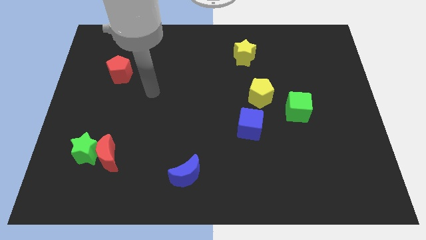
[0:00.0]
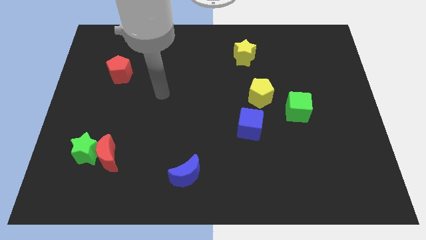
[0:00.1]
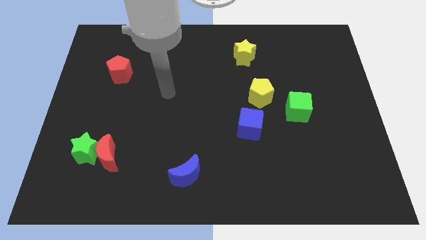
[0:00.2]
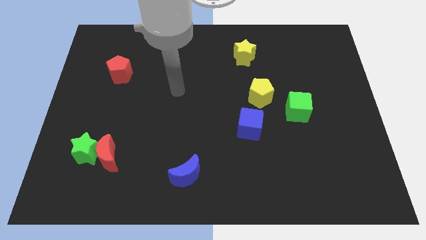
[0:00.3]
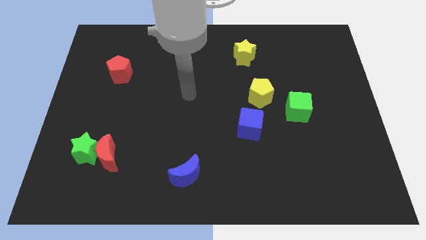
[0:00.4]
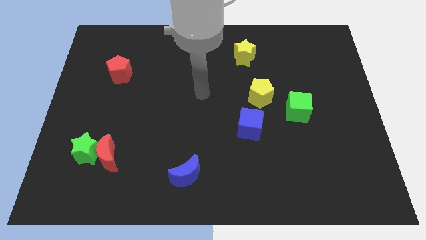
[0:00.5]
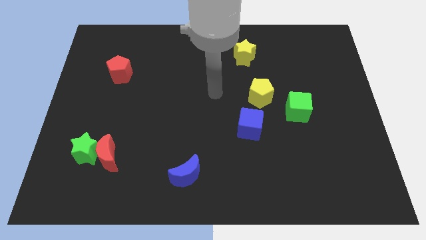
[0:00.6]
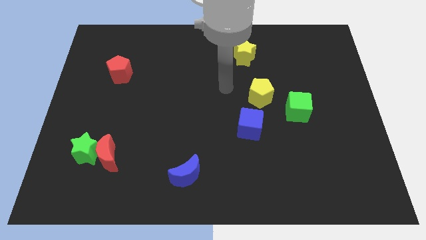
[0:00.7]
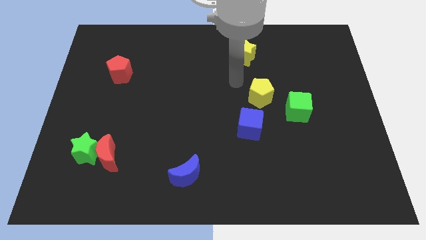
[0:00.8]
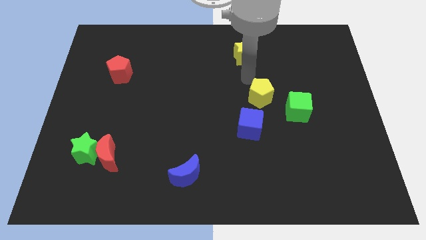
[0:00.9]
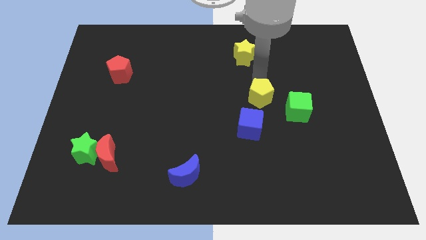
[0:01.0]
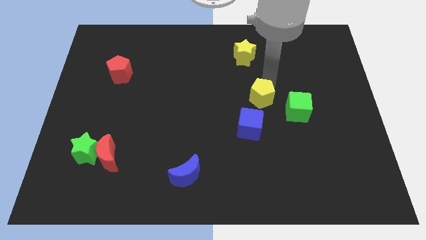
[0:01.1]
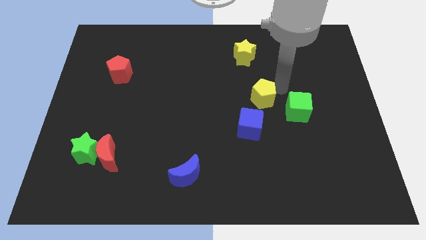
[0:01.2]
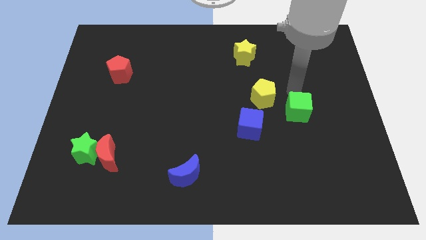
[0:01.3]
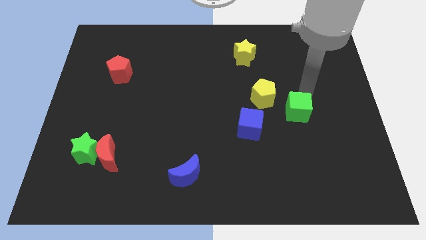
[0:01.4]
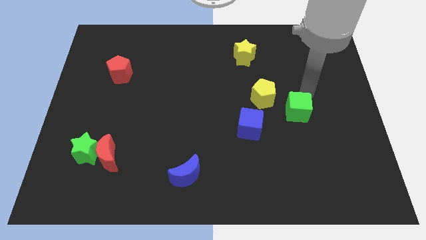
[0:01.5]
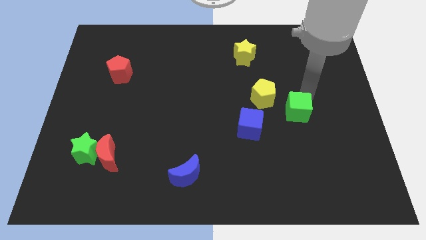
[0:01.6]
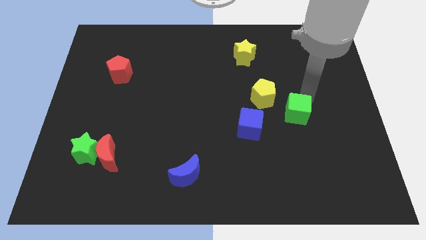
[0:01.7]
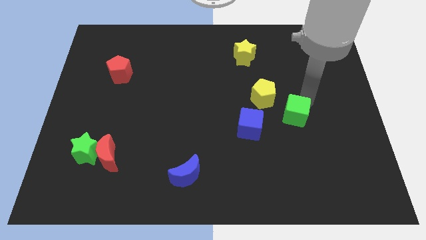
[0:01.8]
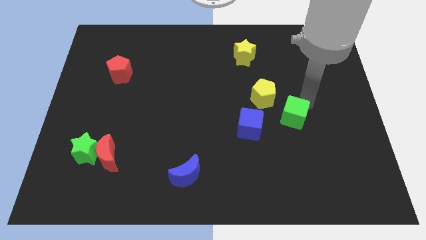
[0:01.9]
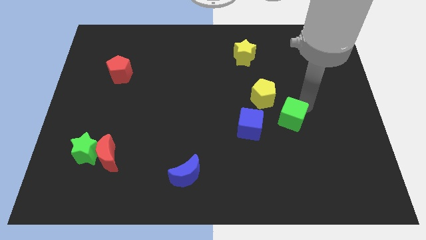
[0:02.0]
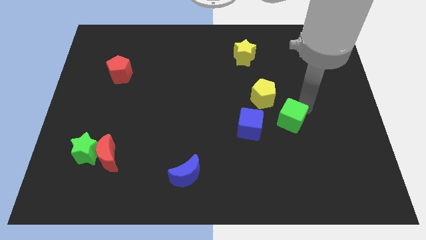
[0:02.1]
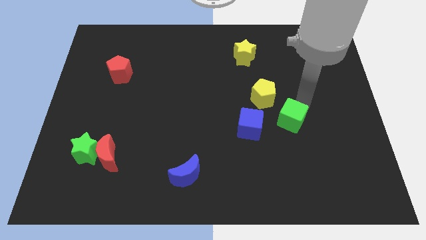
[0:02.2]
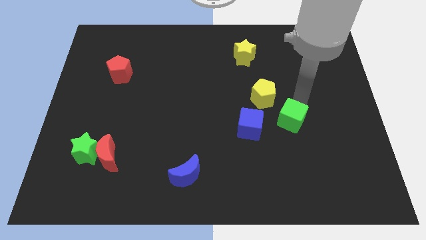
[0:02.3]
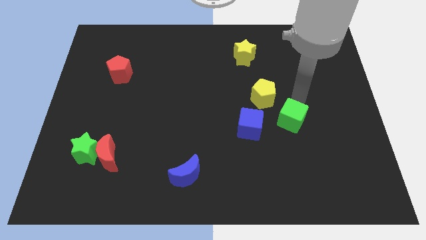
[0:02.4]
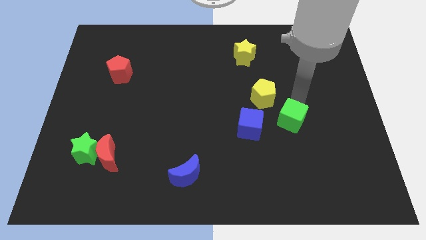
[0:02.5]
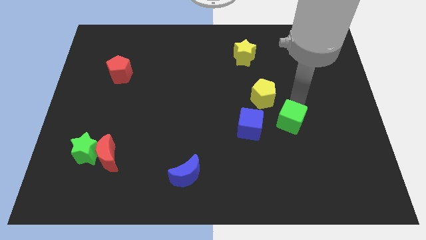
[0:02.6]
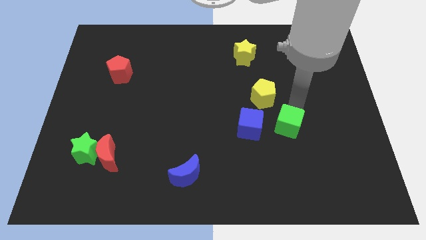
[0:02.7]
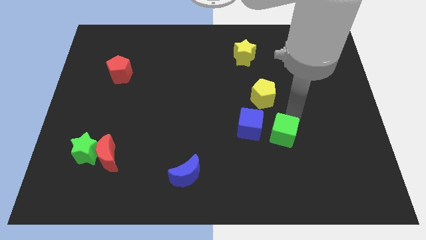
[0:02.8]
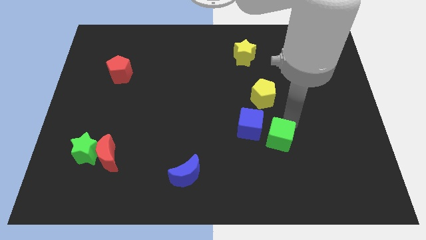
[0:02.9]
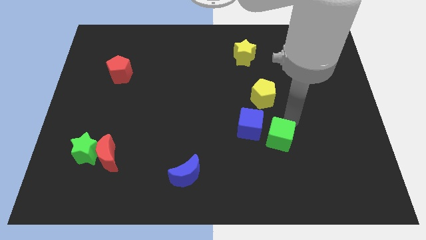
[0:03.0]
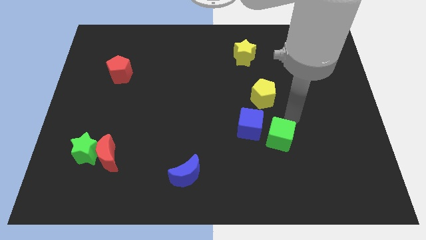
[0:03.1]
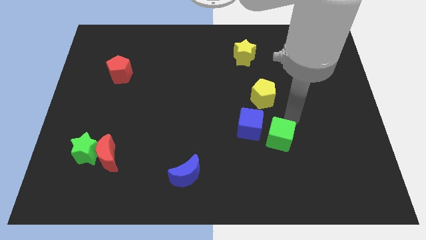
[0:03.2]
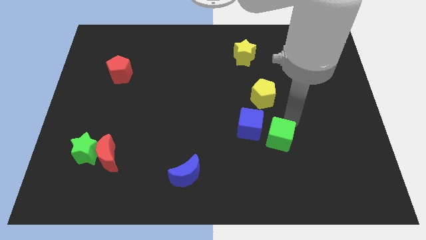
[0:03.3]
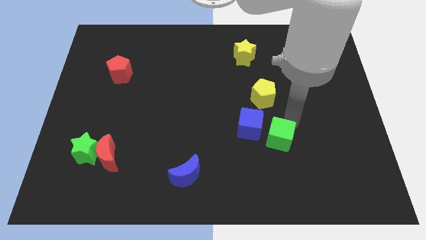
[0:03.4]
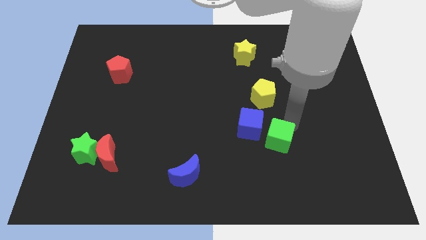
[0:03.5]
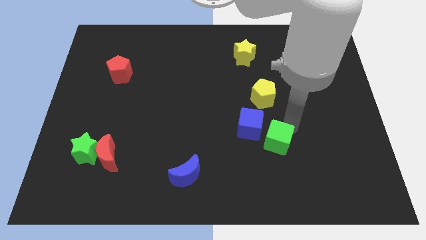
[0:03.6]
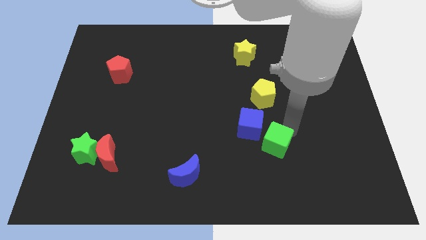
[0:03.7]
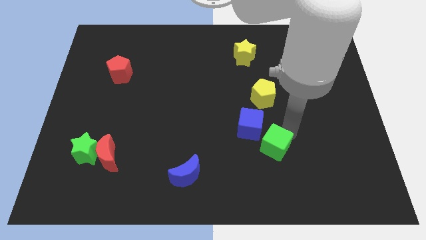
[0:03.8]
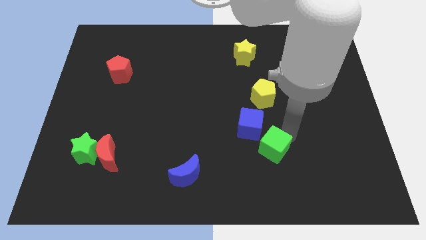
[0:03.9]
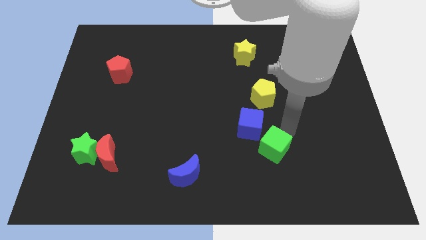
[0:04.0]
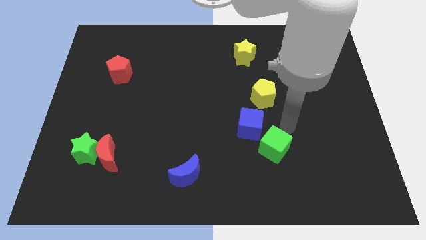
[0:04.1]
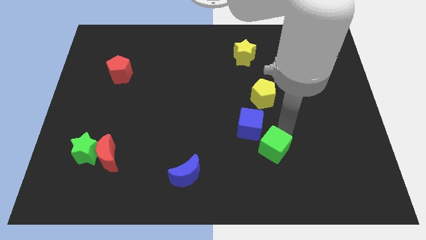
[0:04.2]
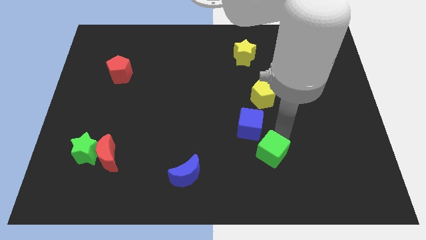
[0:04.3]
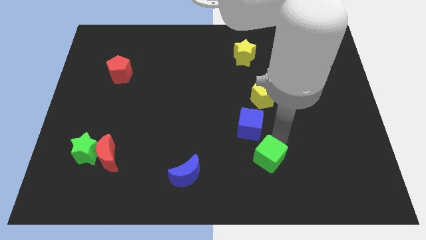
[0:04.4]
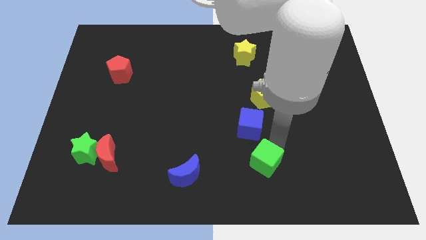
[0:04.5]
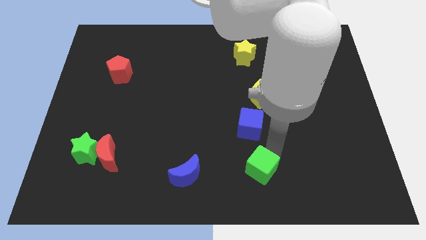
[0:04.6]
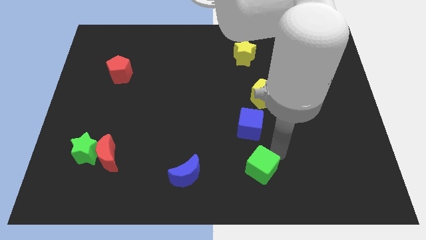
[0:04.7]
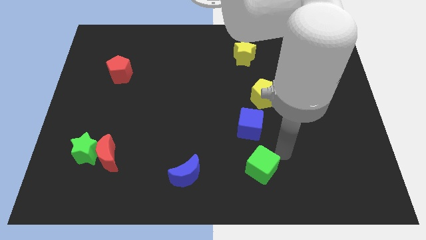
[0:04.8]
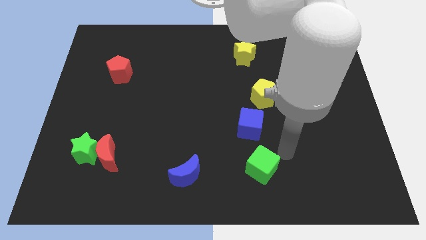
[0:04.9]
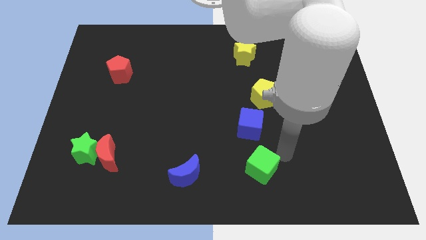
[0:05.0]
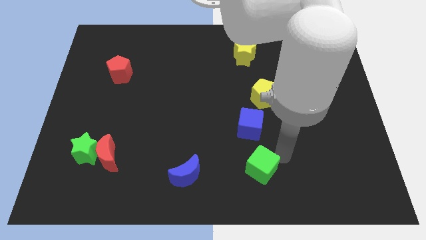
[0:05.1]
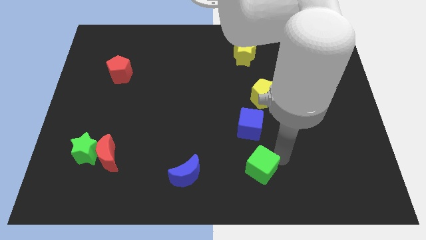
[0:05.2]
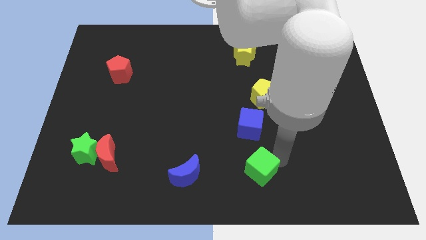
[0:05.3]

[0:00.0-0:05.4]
push the green cube to the bottom side

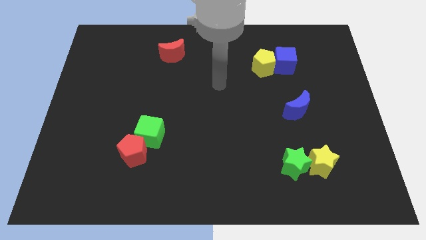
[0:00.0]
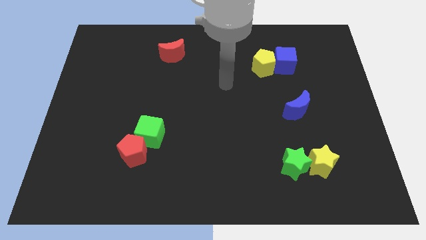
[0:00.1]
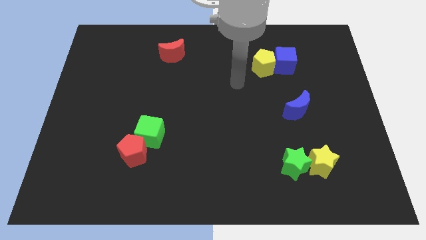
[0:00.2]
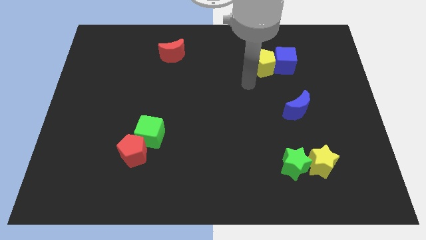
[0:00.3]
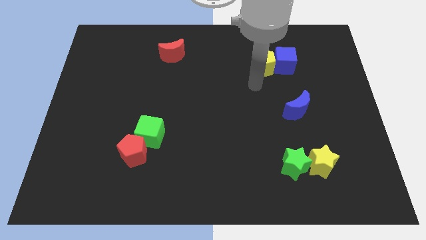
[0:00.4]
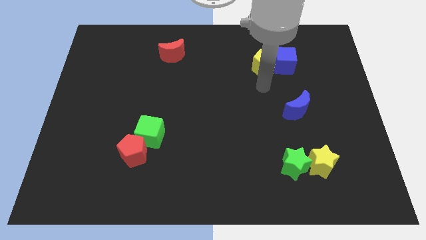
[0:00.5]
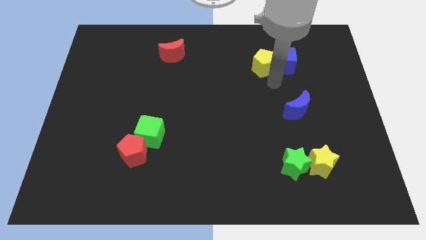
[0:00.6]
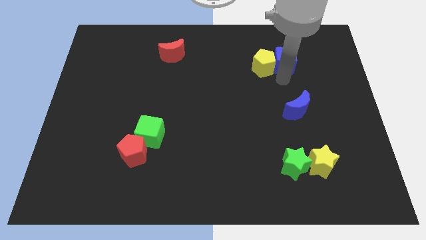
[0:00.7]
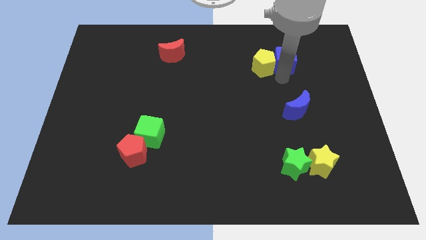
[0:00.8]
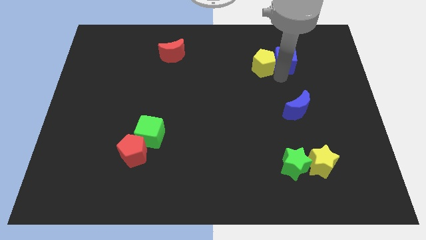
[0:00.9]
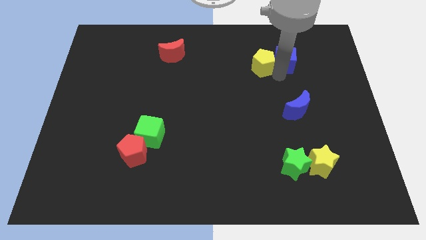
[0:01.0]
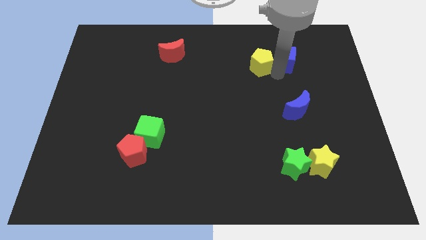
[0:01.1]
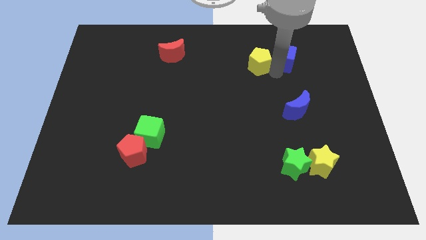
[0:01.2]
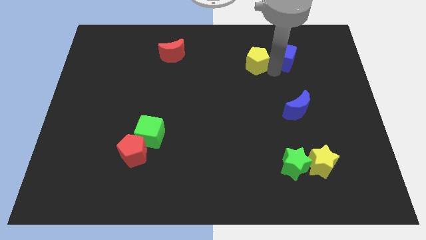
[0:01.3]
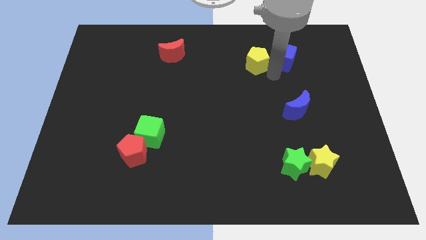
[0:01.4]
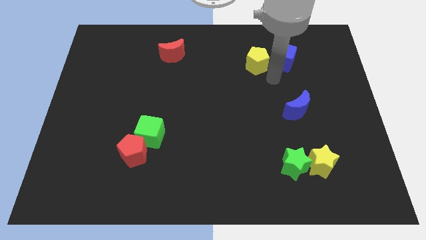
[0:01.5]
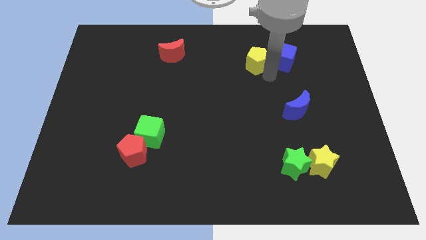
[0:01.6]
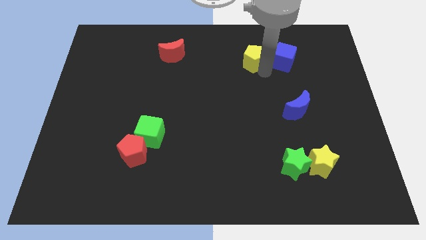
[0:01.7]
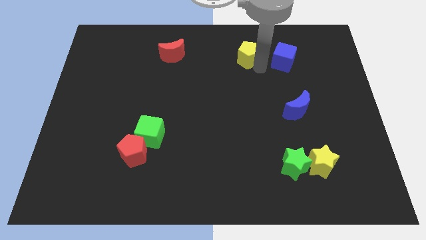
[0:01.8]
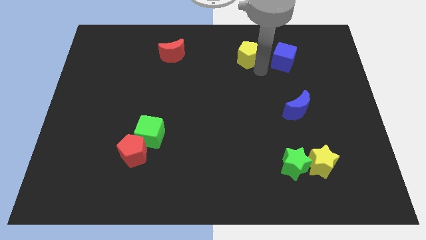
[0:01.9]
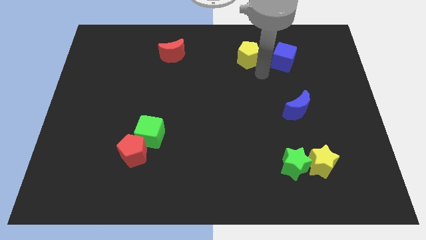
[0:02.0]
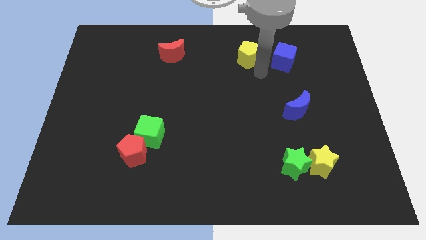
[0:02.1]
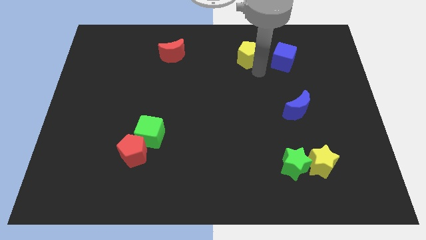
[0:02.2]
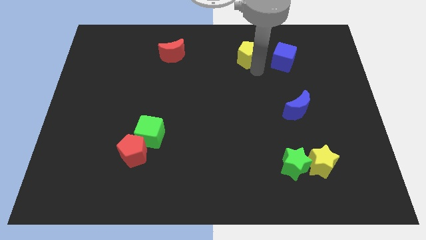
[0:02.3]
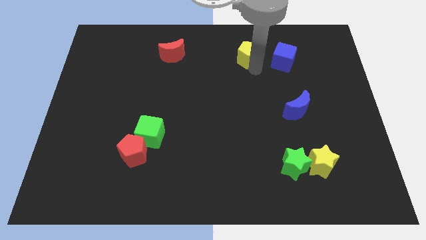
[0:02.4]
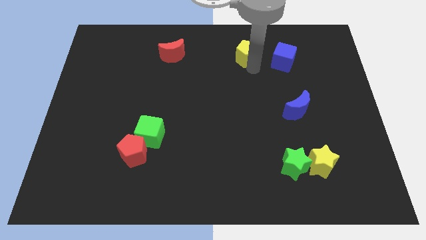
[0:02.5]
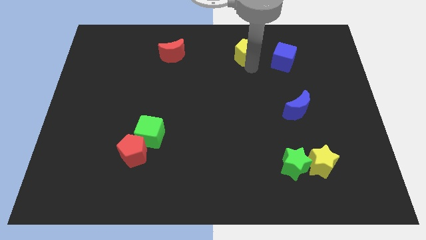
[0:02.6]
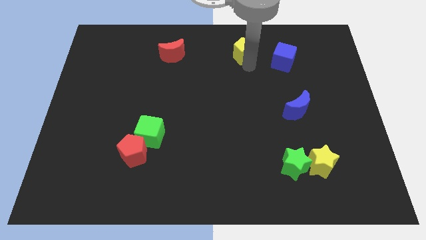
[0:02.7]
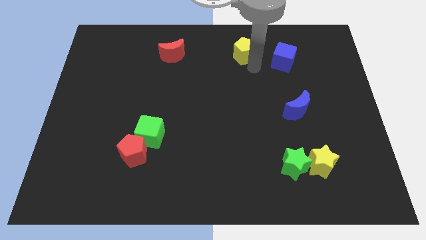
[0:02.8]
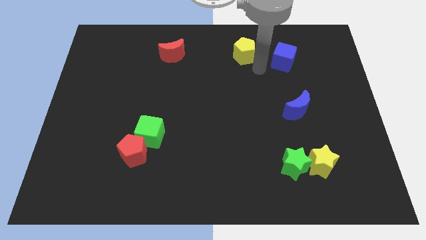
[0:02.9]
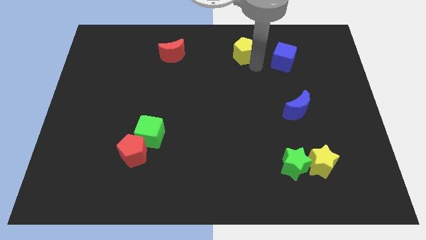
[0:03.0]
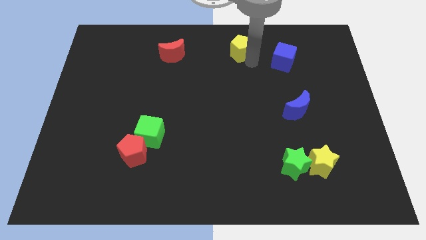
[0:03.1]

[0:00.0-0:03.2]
push the yellow pentagon to the top
